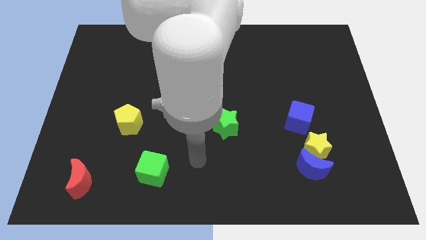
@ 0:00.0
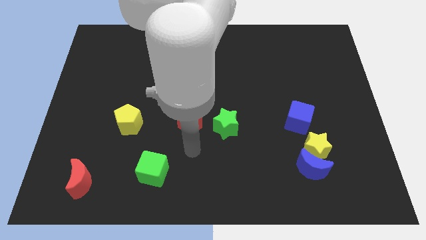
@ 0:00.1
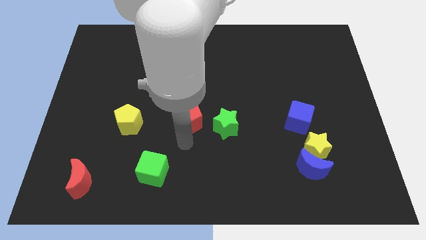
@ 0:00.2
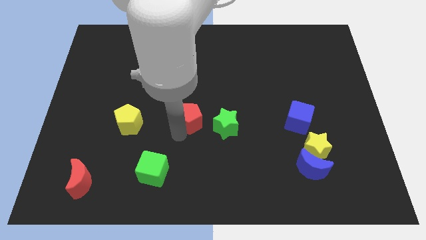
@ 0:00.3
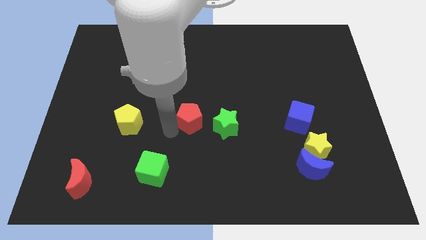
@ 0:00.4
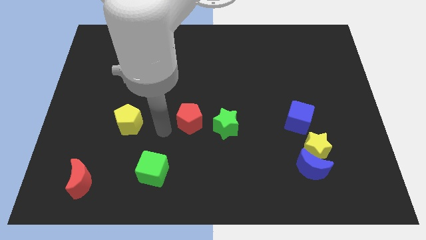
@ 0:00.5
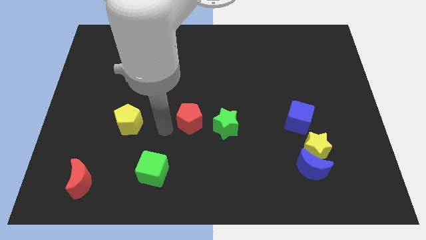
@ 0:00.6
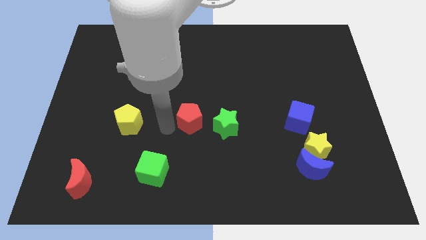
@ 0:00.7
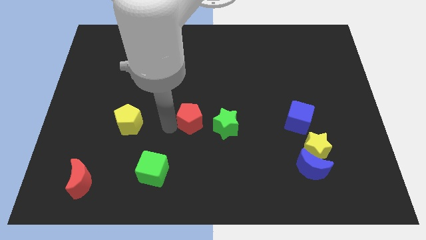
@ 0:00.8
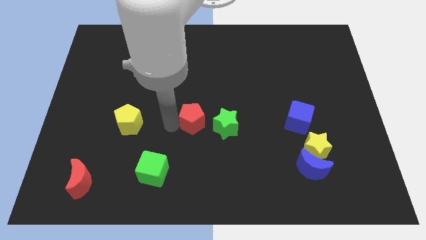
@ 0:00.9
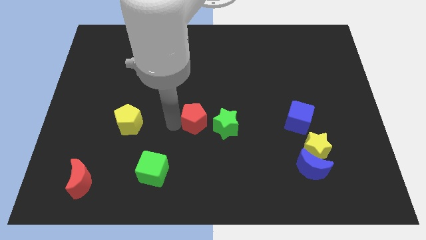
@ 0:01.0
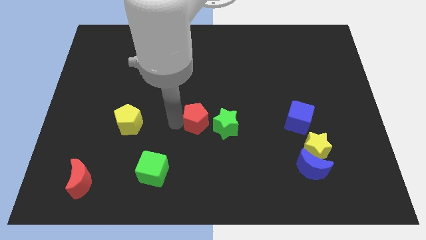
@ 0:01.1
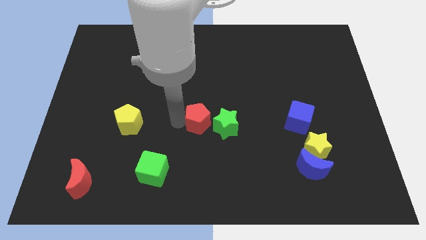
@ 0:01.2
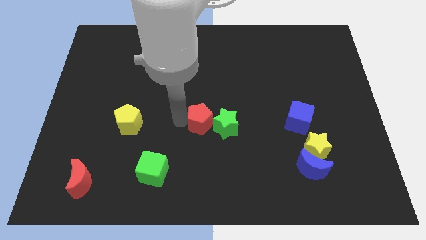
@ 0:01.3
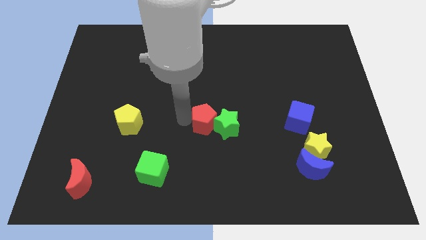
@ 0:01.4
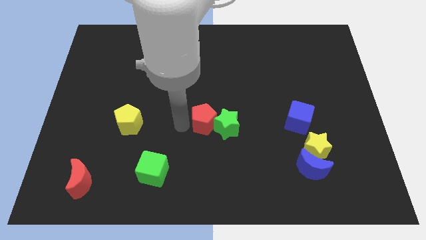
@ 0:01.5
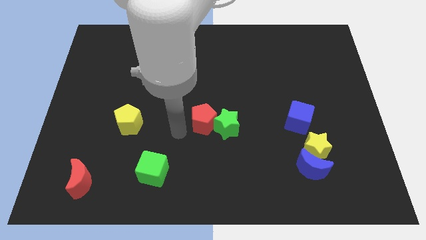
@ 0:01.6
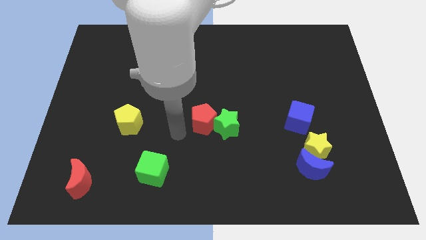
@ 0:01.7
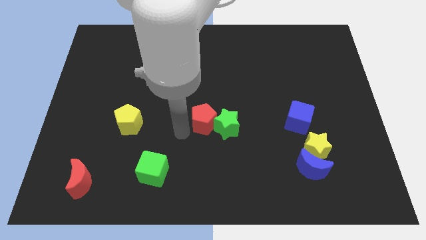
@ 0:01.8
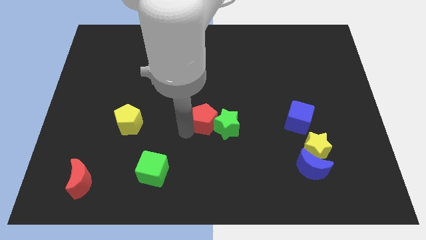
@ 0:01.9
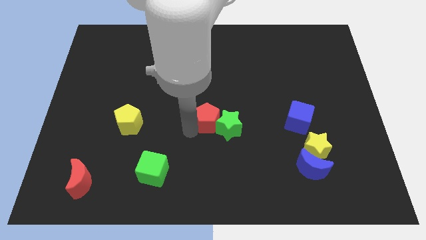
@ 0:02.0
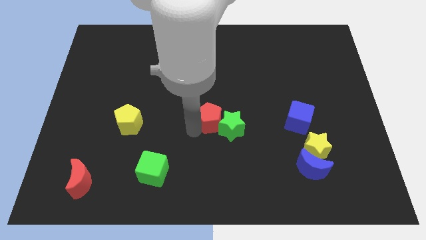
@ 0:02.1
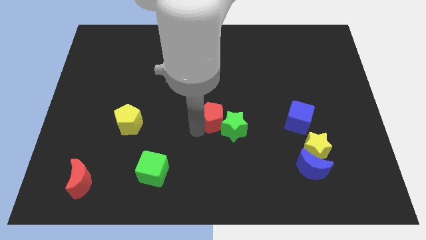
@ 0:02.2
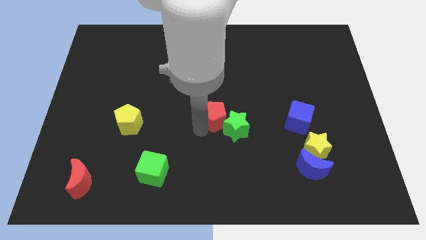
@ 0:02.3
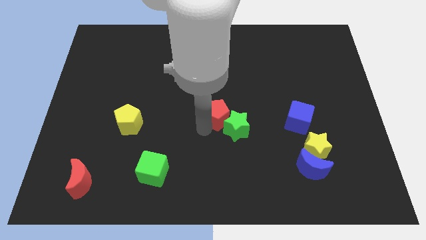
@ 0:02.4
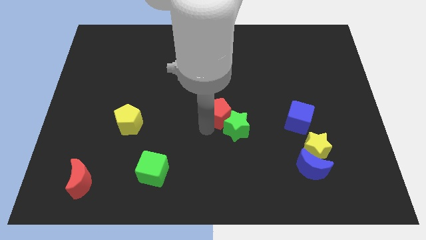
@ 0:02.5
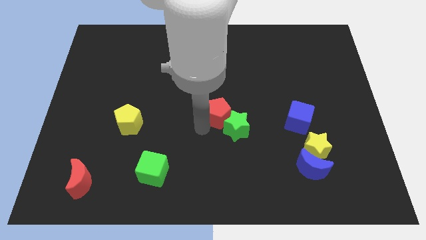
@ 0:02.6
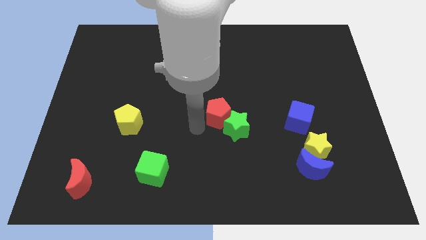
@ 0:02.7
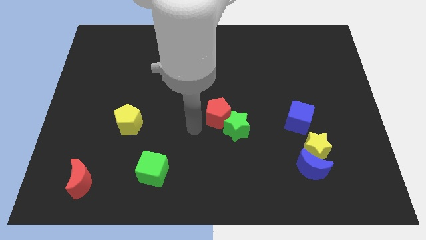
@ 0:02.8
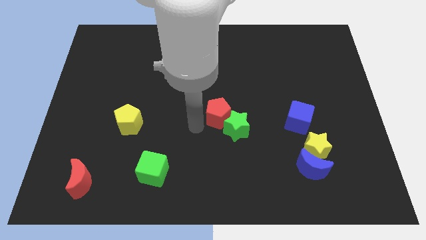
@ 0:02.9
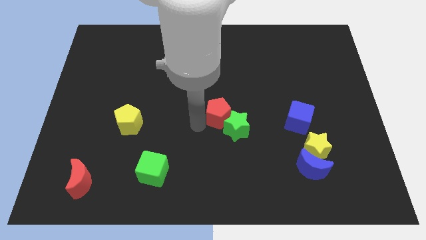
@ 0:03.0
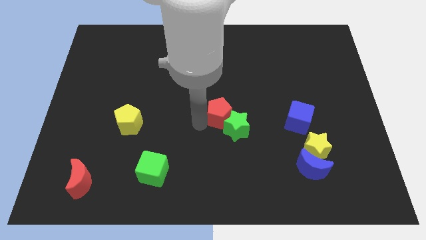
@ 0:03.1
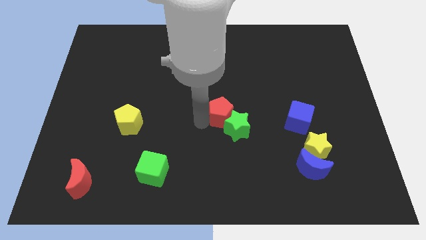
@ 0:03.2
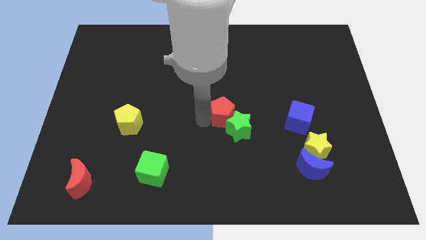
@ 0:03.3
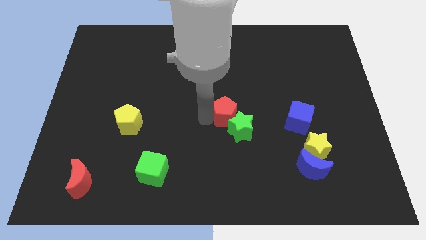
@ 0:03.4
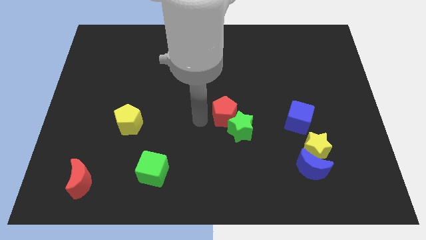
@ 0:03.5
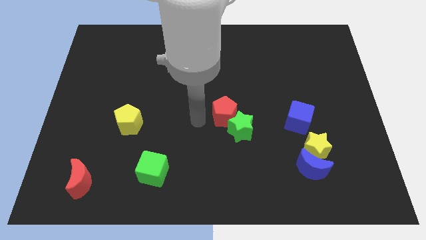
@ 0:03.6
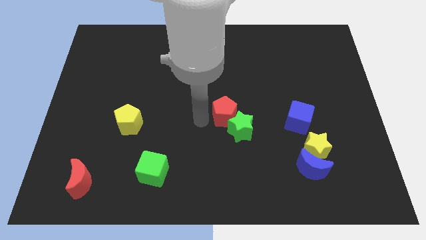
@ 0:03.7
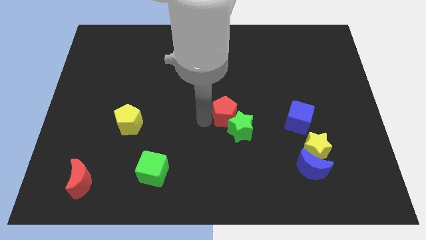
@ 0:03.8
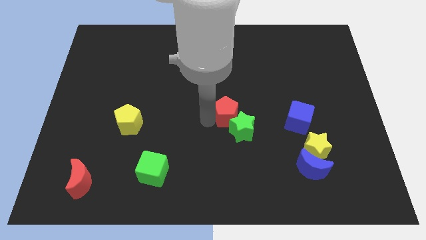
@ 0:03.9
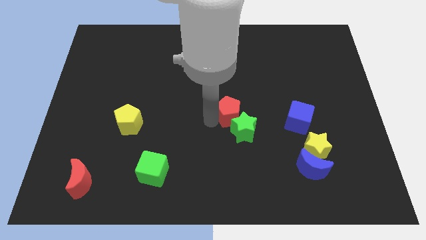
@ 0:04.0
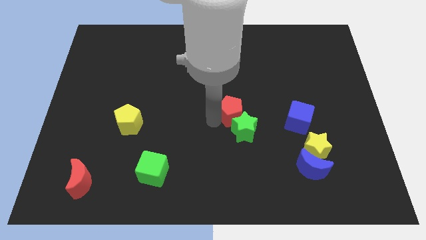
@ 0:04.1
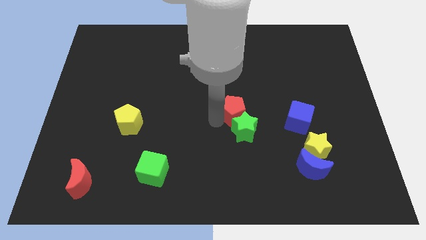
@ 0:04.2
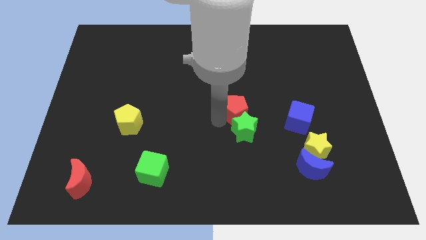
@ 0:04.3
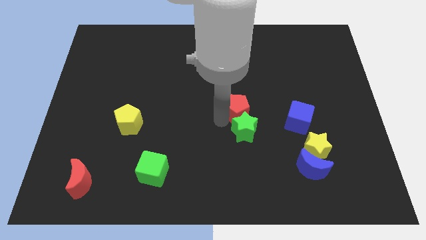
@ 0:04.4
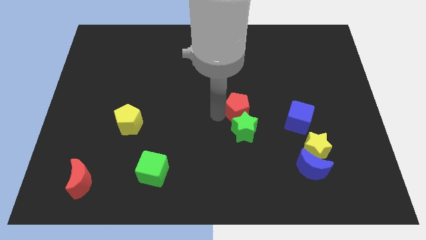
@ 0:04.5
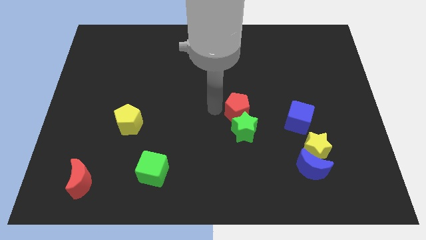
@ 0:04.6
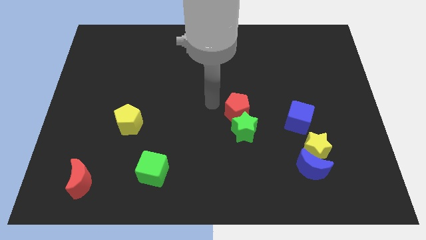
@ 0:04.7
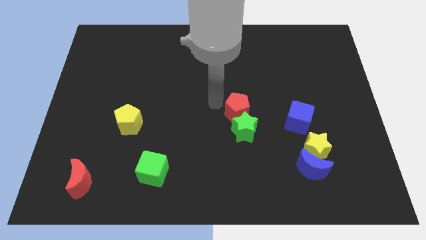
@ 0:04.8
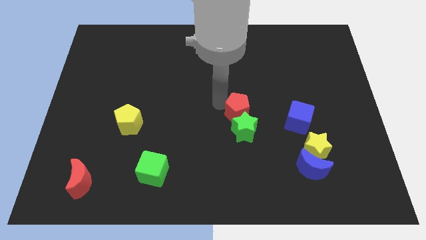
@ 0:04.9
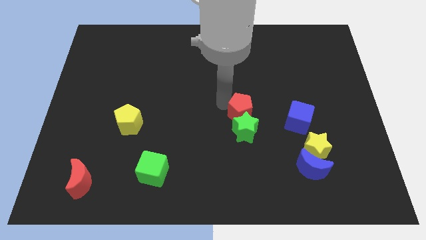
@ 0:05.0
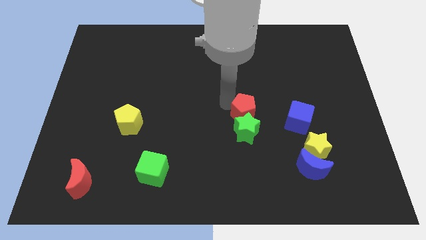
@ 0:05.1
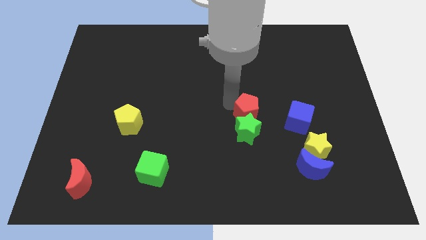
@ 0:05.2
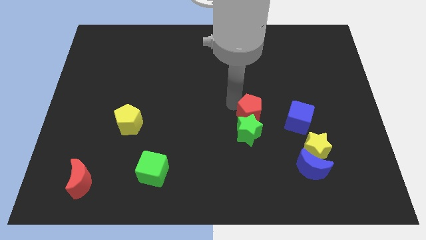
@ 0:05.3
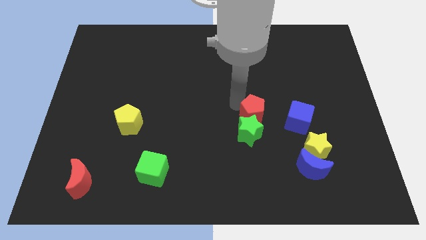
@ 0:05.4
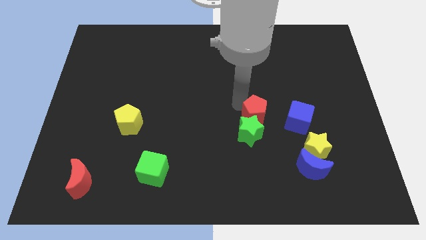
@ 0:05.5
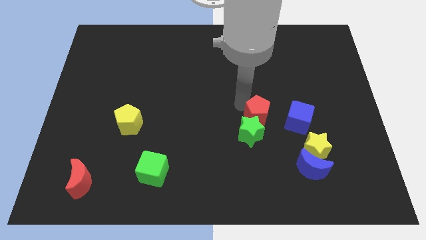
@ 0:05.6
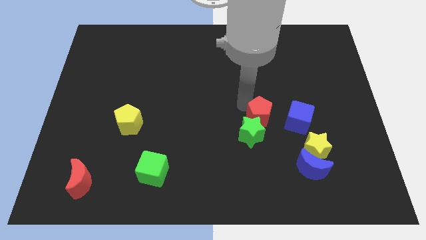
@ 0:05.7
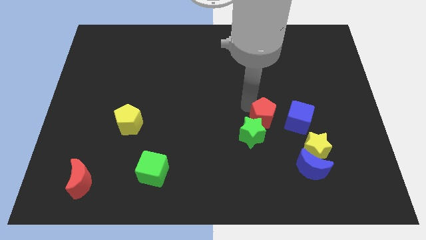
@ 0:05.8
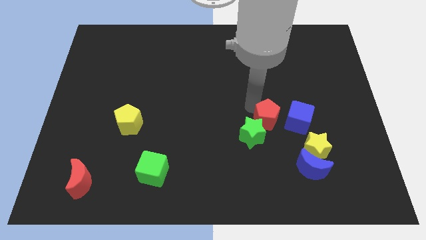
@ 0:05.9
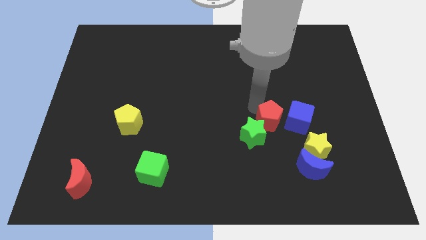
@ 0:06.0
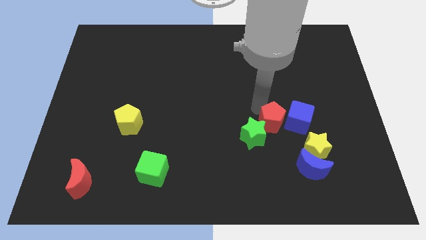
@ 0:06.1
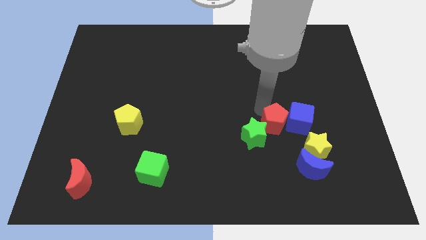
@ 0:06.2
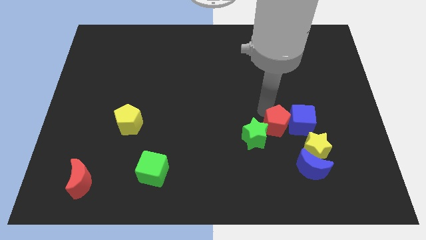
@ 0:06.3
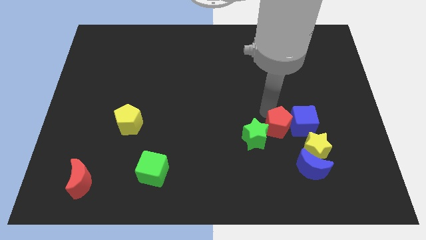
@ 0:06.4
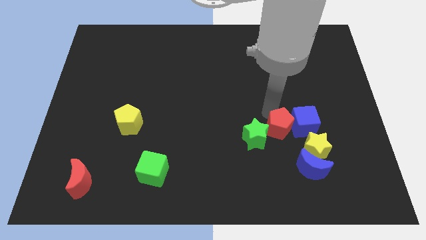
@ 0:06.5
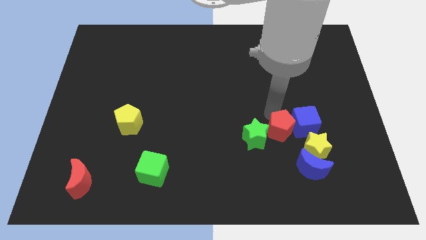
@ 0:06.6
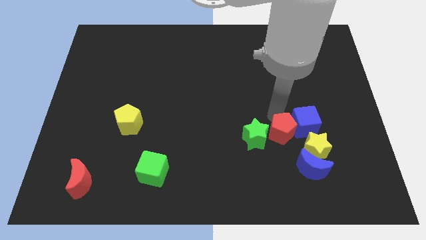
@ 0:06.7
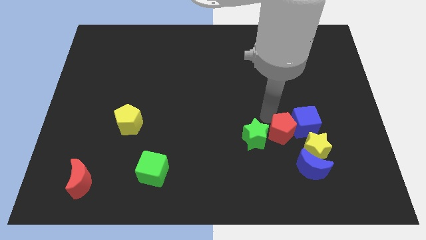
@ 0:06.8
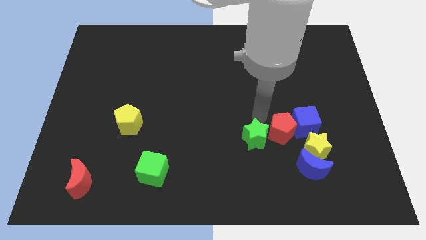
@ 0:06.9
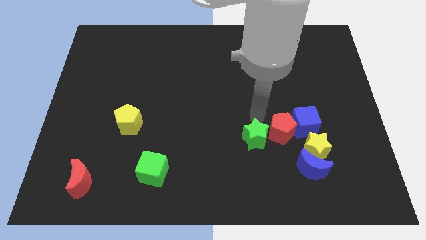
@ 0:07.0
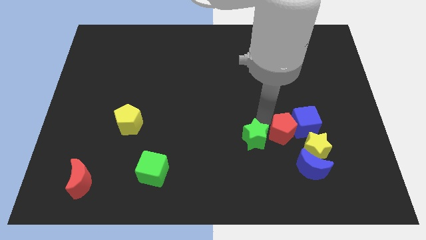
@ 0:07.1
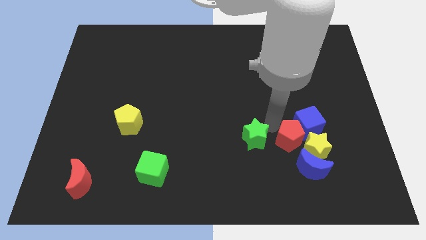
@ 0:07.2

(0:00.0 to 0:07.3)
move the red pentagon next to the yellow star

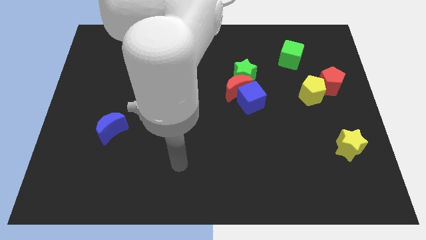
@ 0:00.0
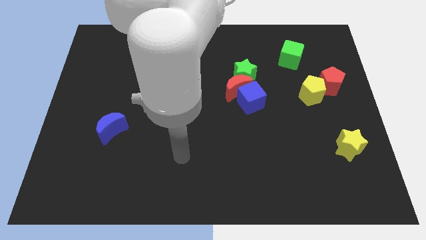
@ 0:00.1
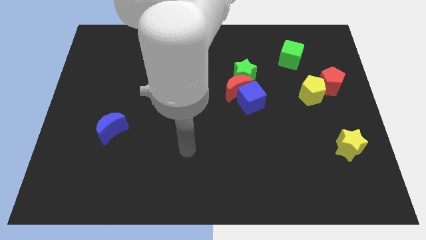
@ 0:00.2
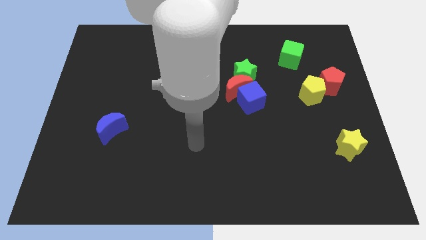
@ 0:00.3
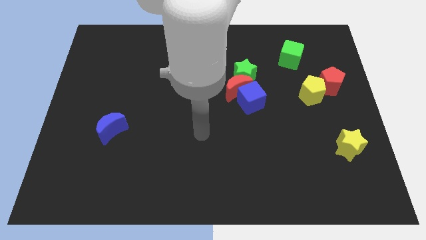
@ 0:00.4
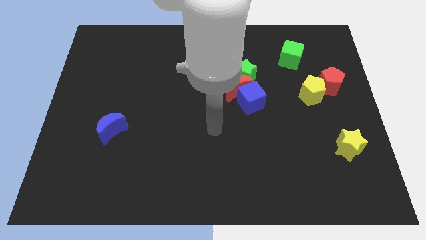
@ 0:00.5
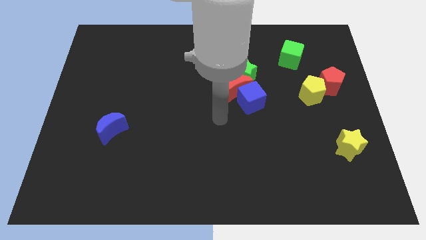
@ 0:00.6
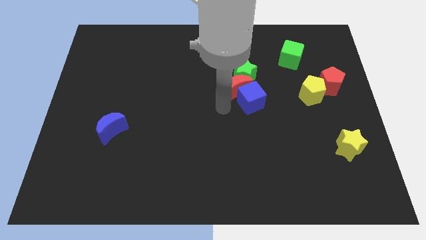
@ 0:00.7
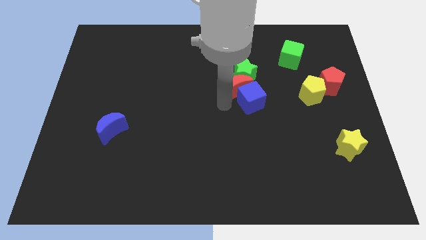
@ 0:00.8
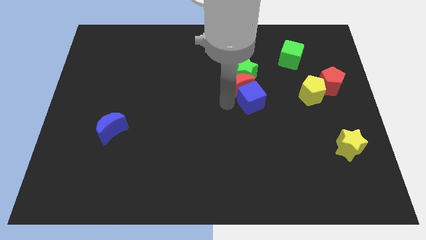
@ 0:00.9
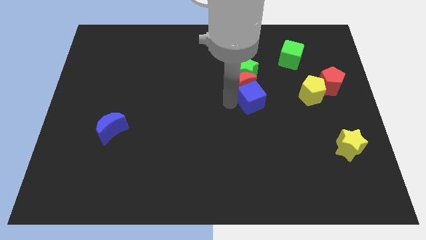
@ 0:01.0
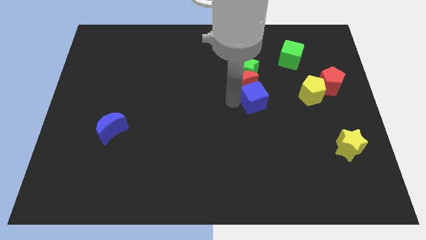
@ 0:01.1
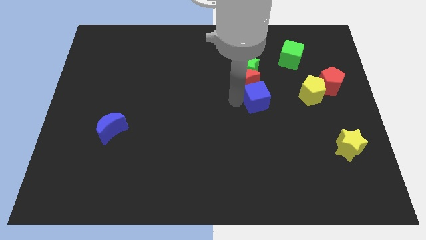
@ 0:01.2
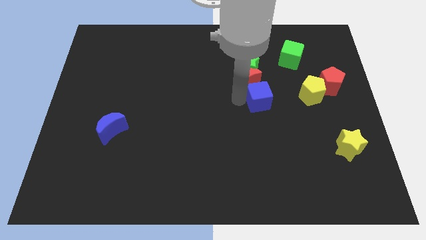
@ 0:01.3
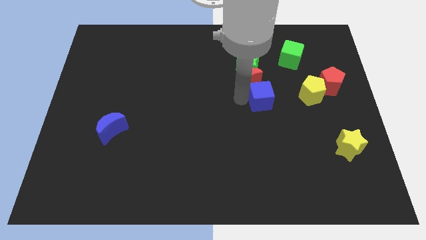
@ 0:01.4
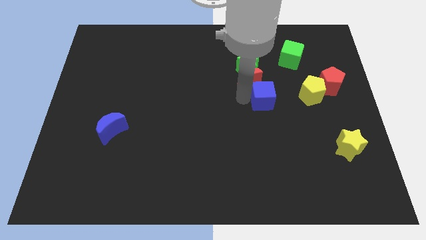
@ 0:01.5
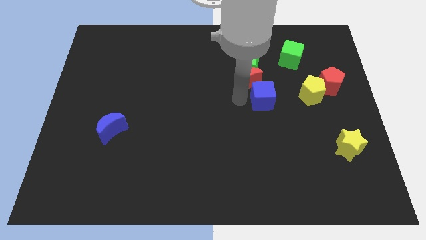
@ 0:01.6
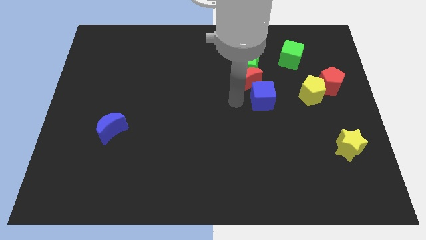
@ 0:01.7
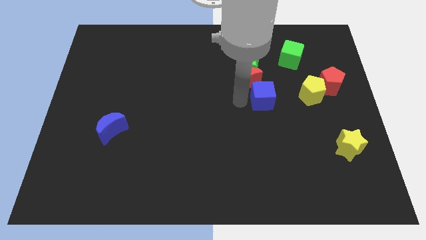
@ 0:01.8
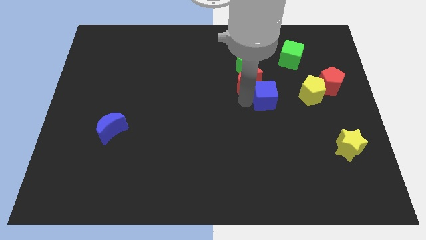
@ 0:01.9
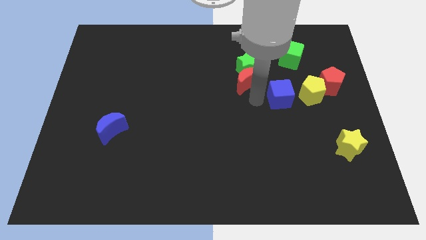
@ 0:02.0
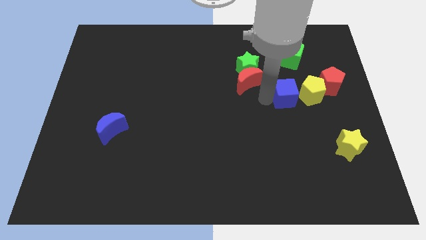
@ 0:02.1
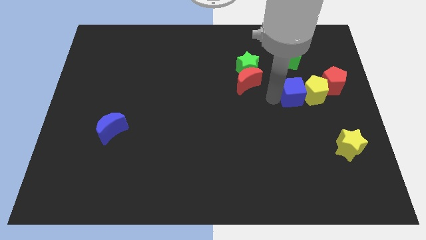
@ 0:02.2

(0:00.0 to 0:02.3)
slide the blue cube close to the yellow pentagon
